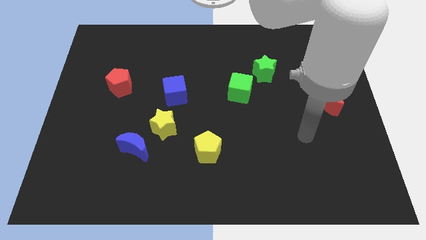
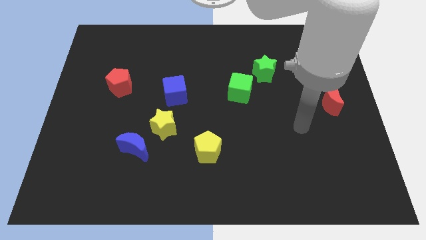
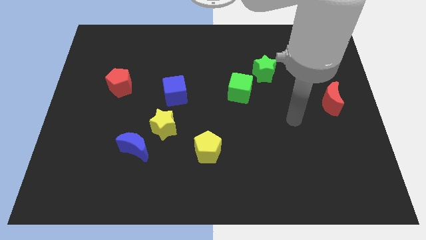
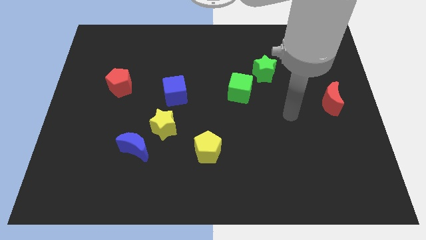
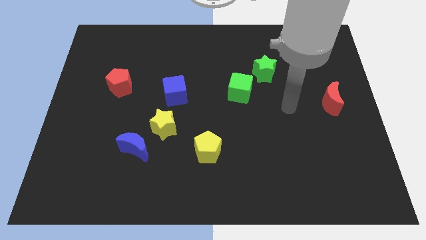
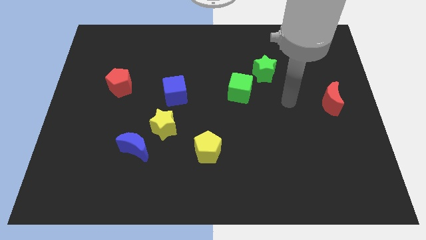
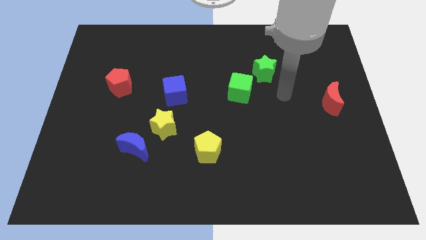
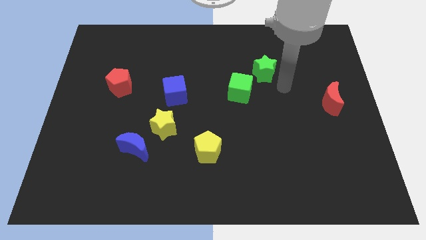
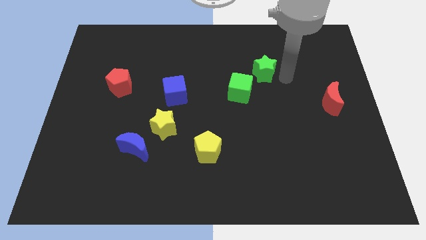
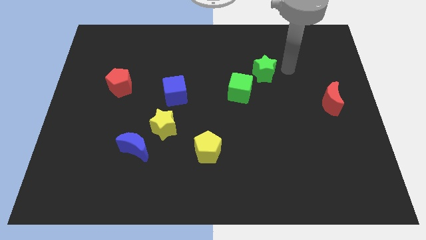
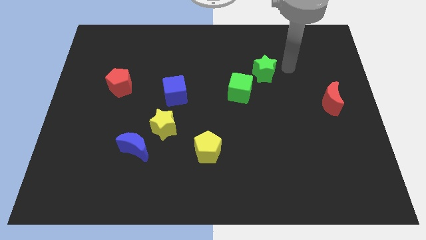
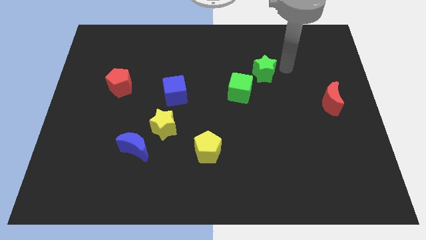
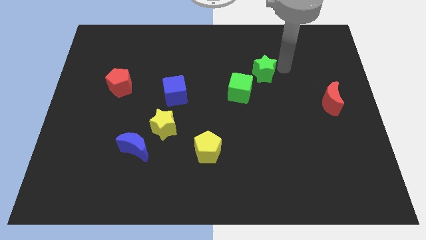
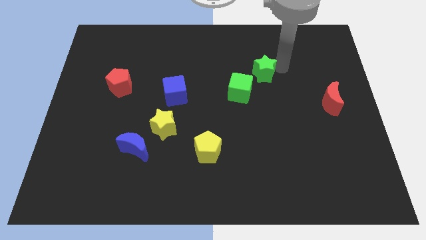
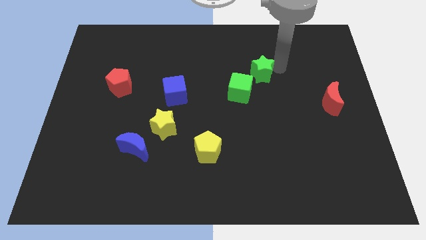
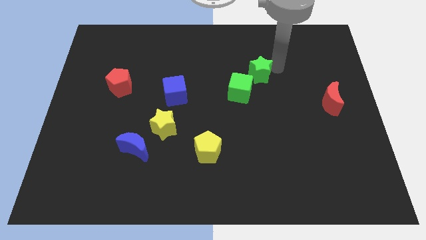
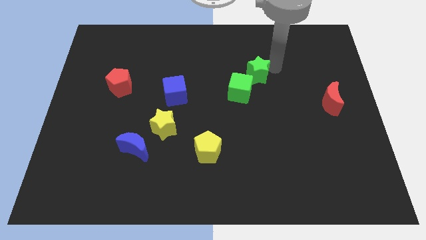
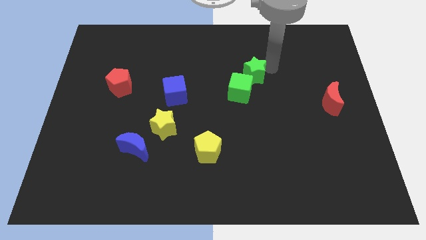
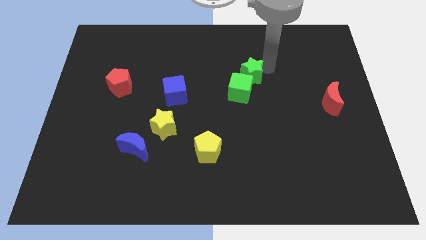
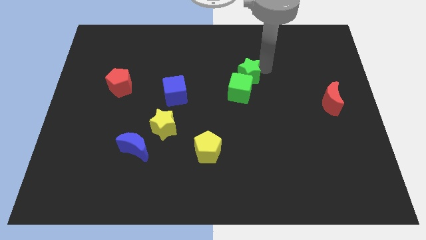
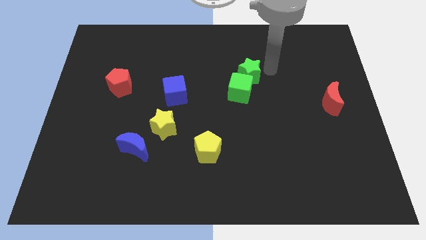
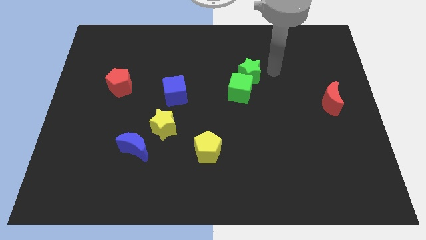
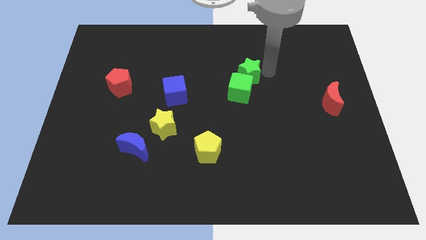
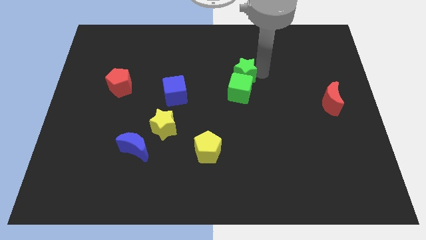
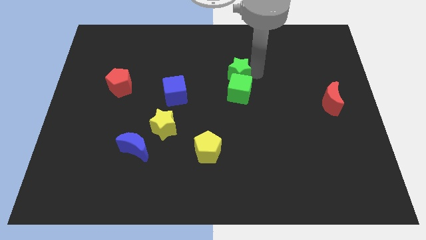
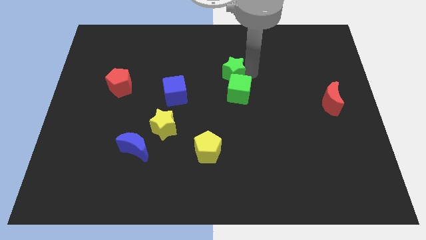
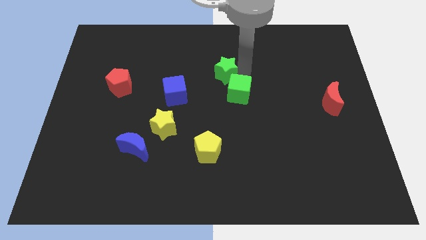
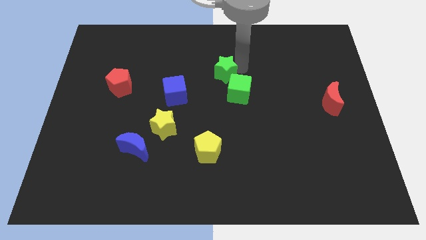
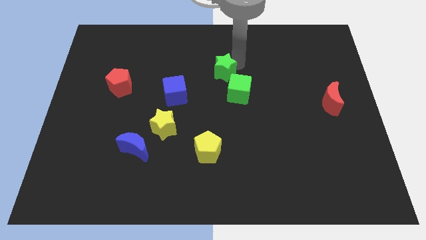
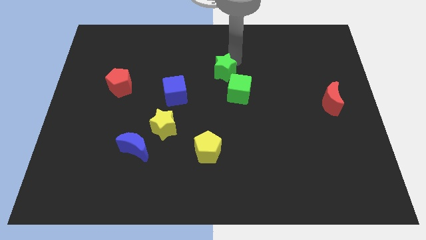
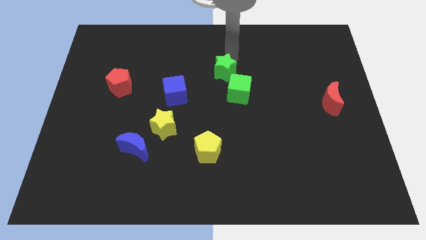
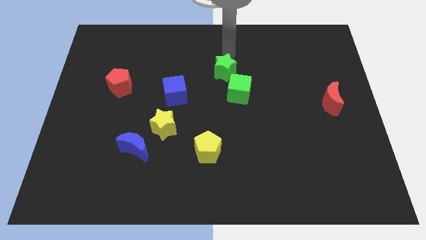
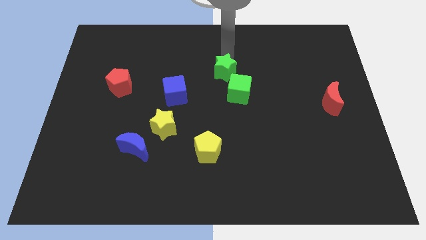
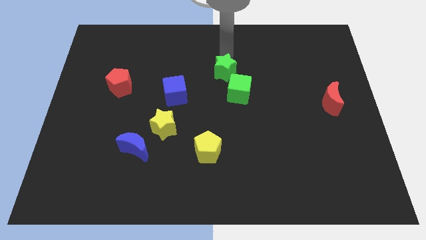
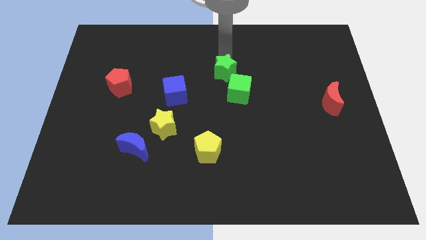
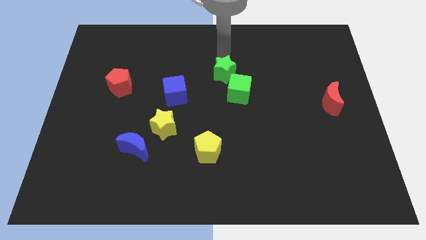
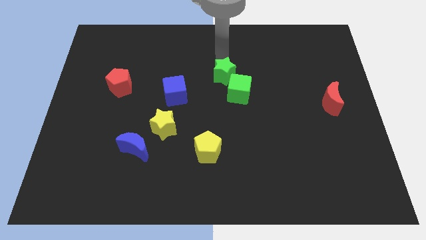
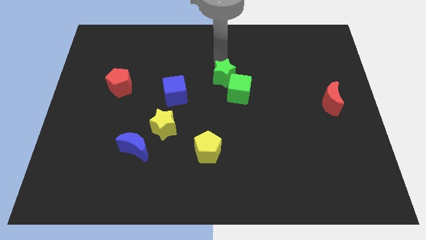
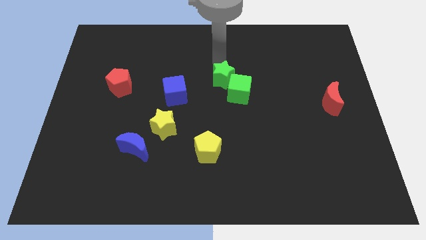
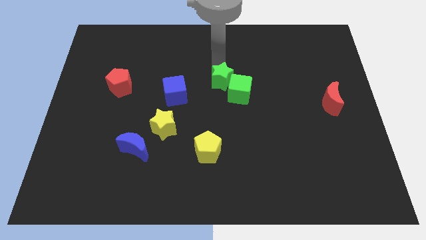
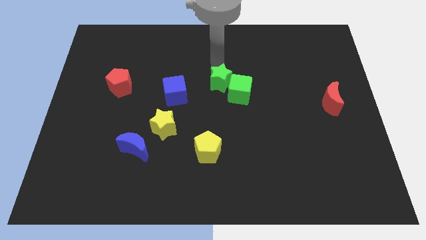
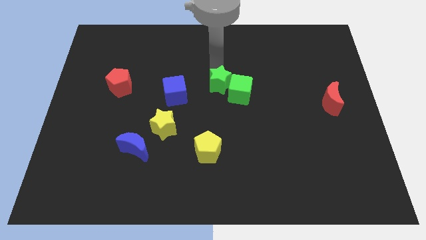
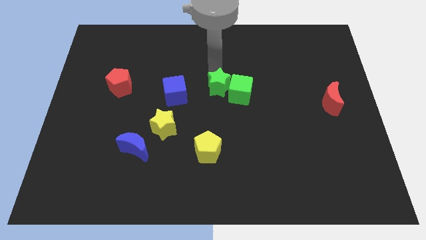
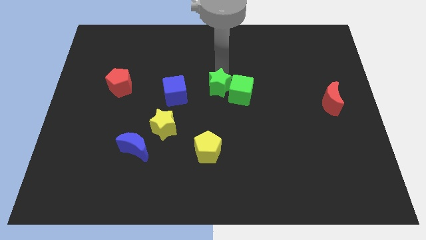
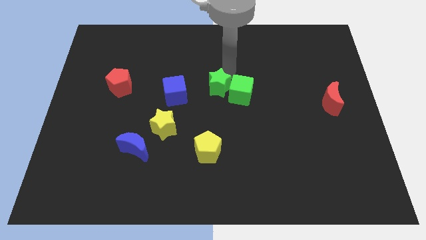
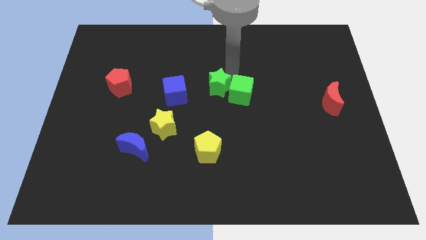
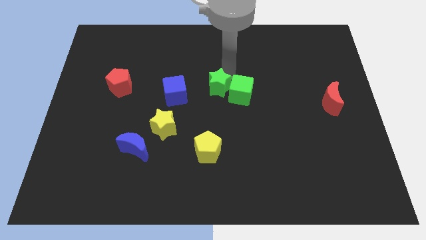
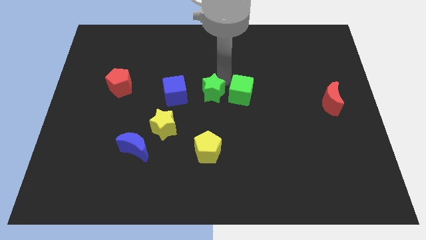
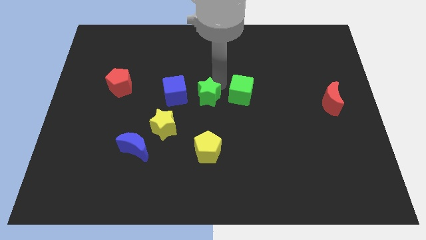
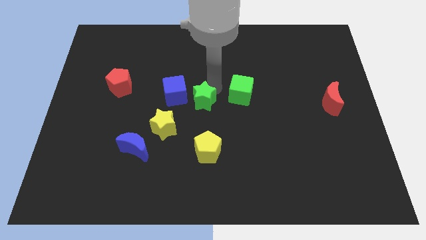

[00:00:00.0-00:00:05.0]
put the green star diagonally down and to the right of the blue cube

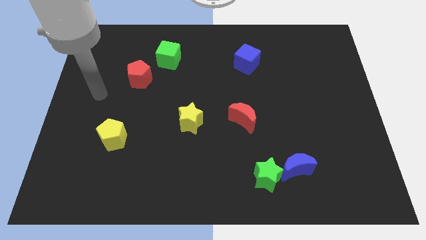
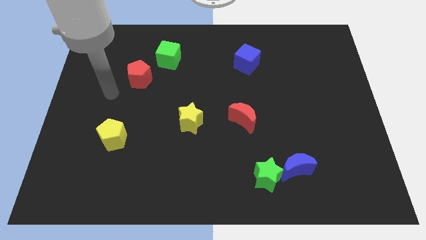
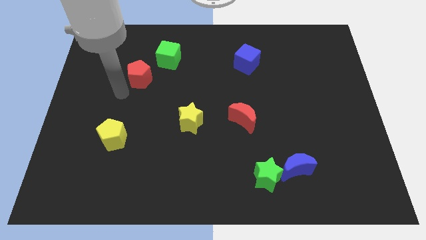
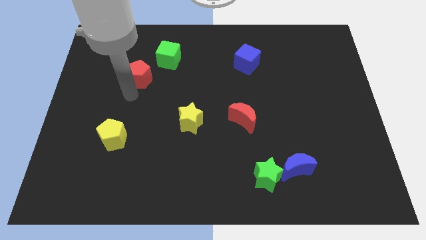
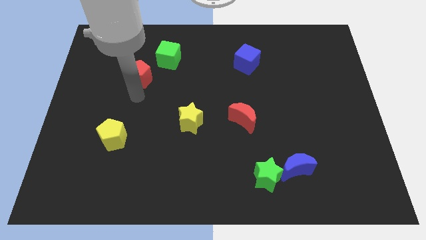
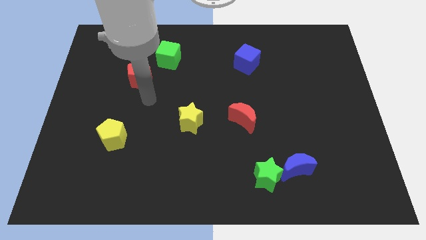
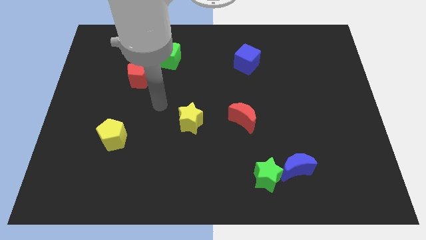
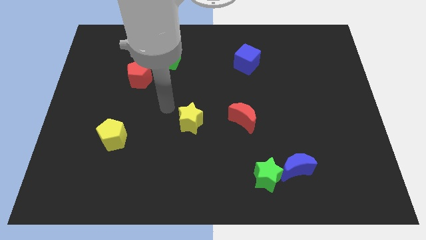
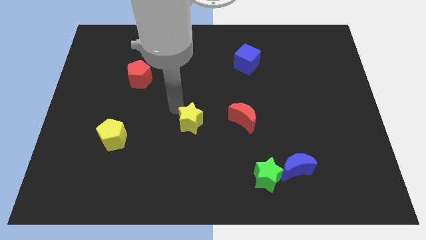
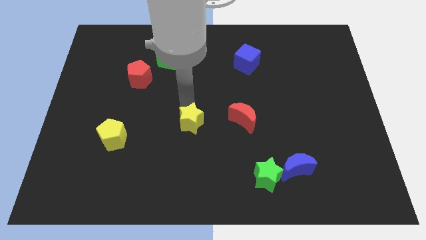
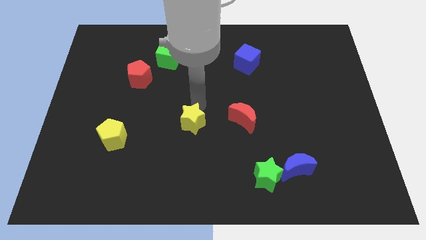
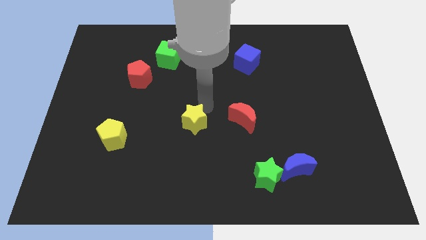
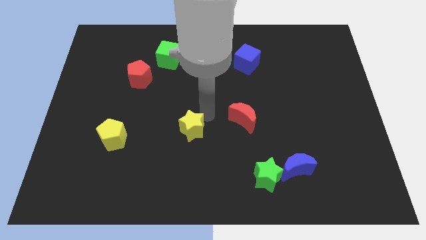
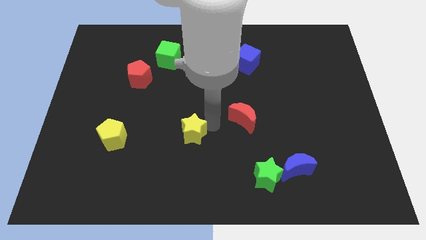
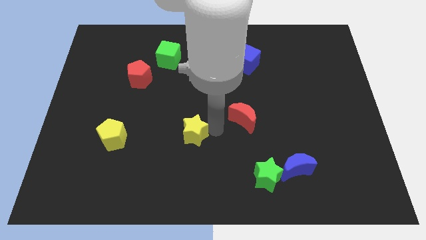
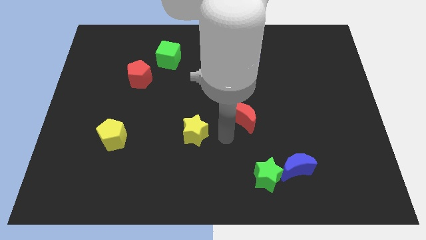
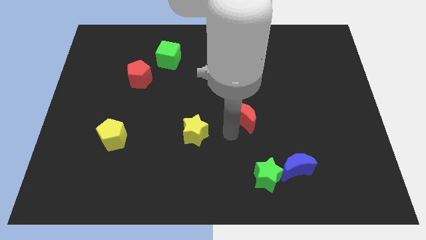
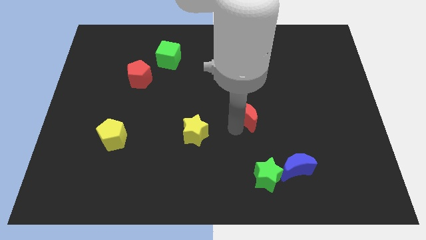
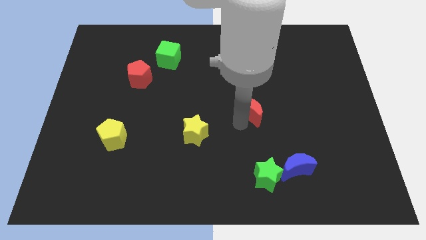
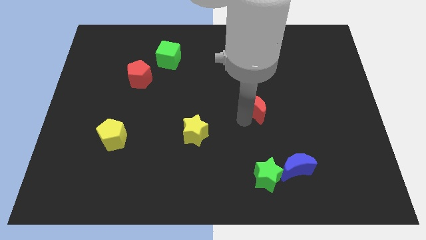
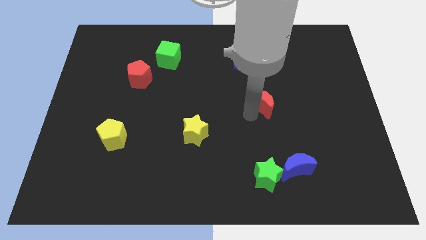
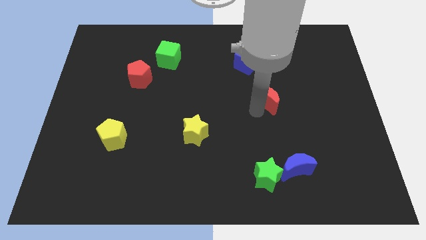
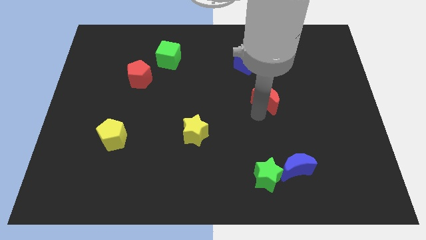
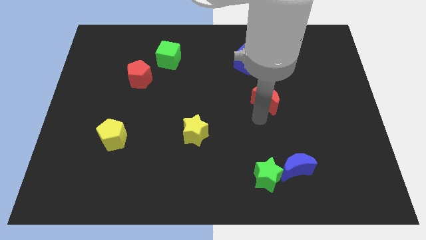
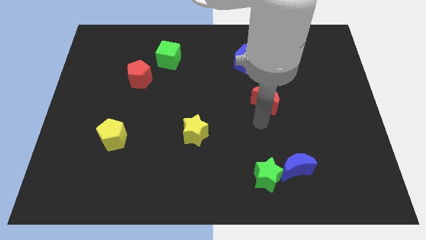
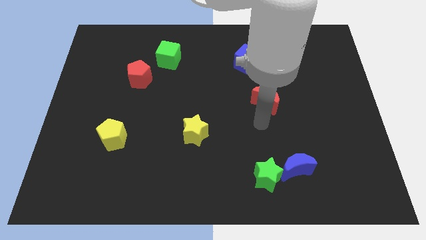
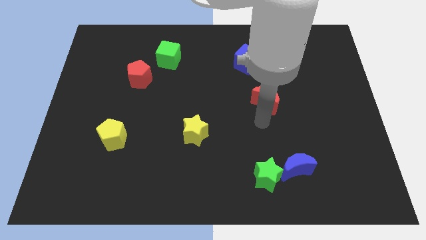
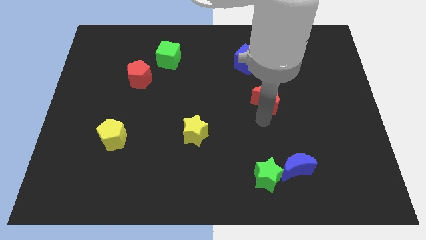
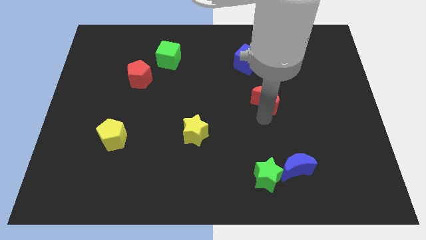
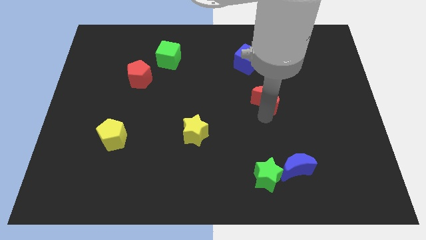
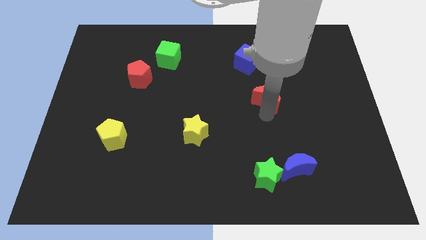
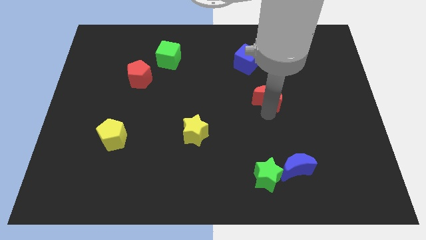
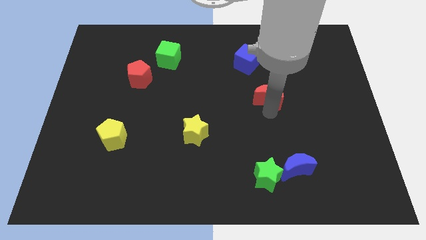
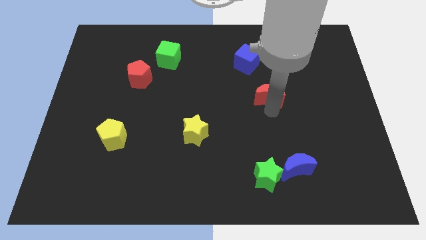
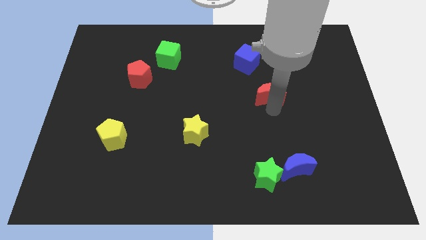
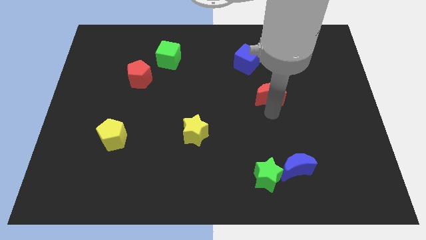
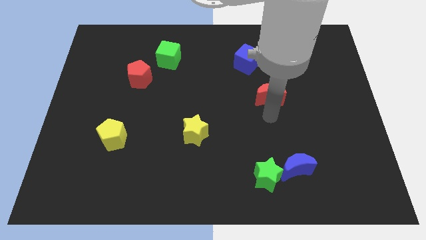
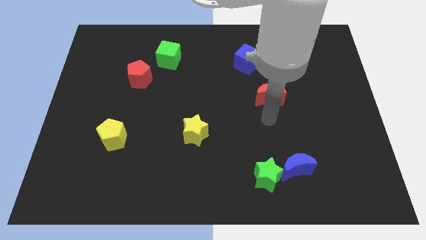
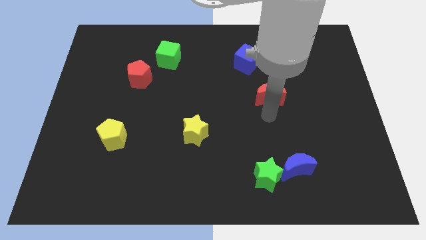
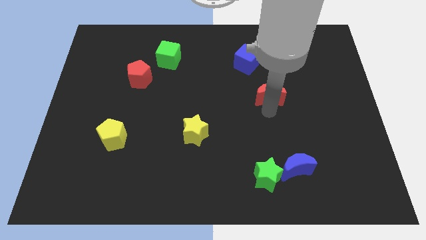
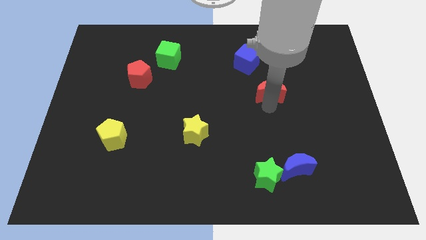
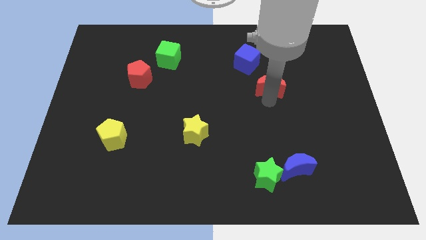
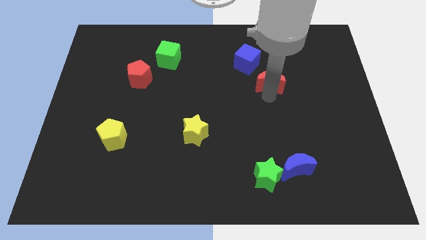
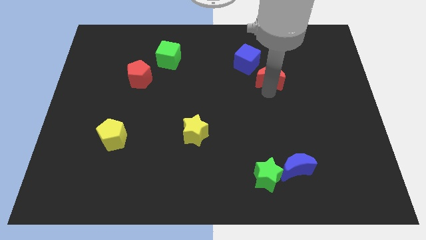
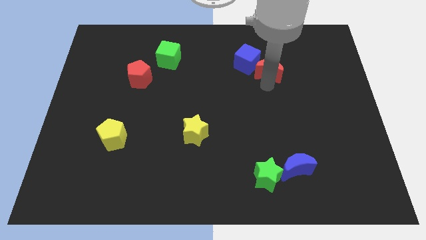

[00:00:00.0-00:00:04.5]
slide the red moon just right of the blue cube
